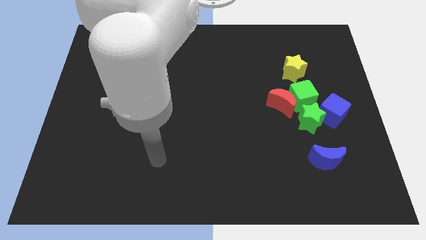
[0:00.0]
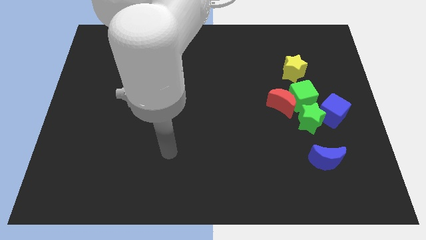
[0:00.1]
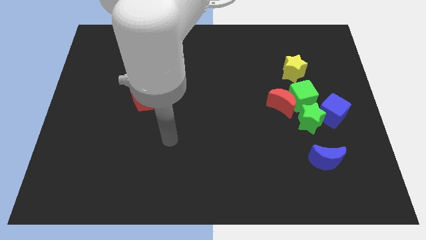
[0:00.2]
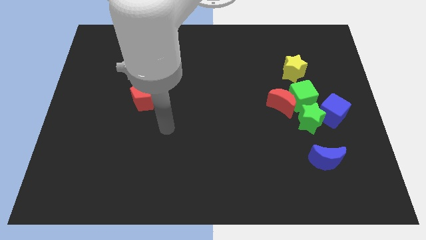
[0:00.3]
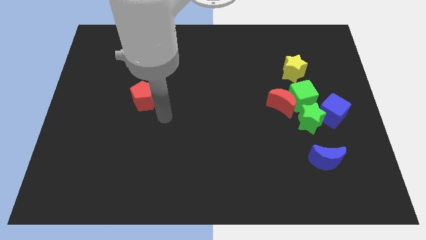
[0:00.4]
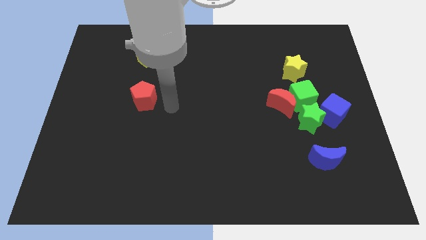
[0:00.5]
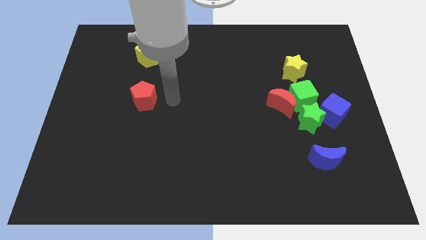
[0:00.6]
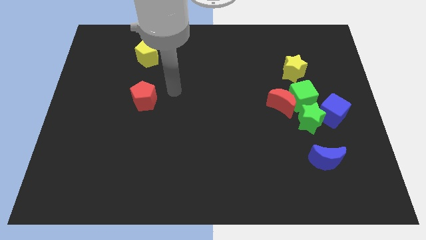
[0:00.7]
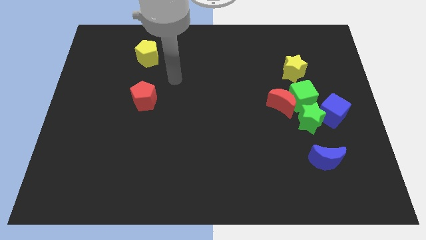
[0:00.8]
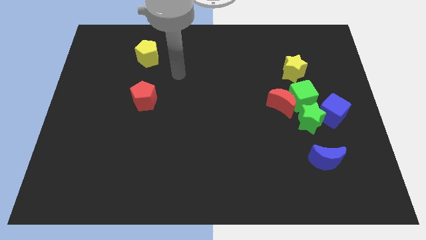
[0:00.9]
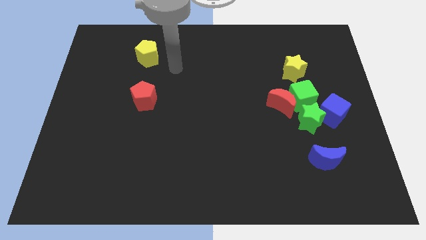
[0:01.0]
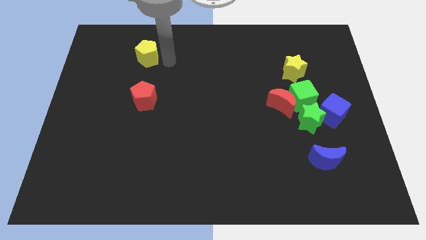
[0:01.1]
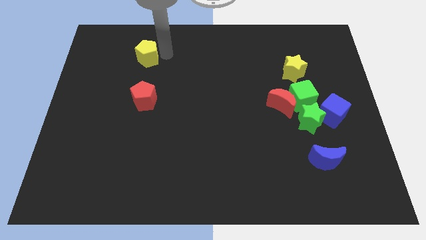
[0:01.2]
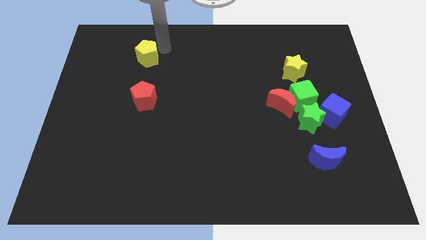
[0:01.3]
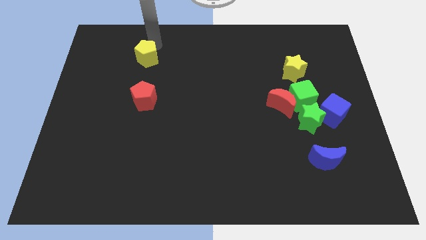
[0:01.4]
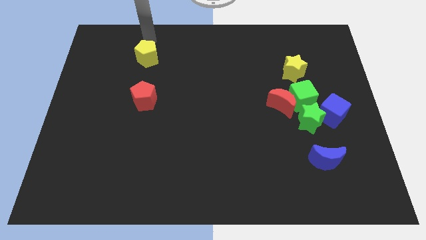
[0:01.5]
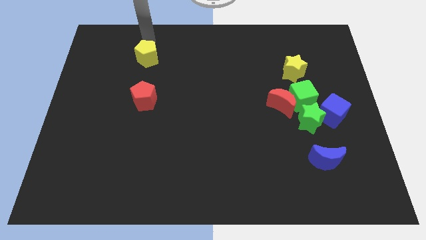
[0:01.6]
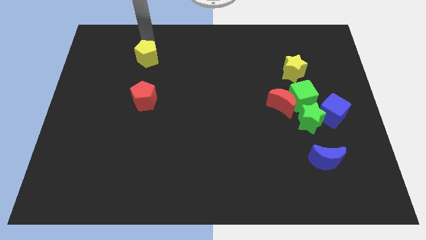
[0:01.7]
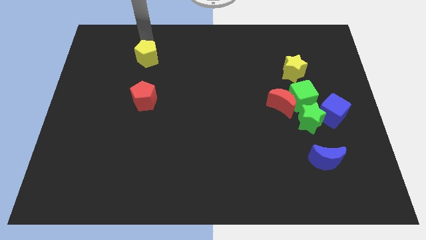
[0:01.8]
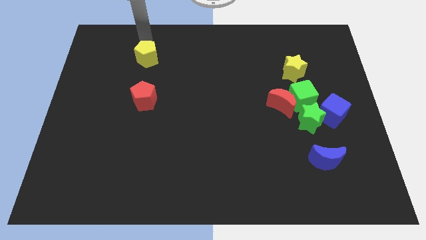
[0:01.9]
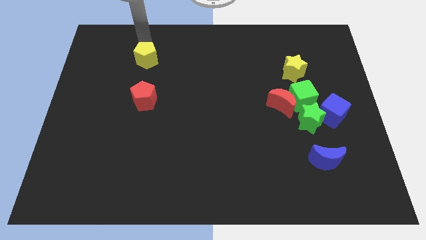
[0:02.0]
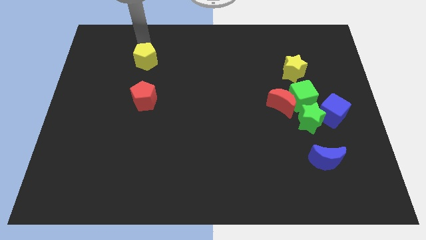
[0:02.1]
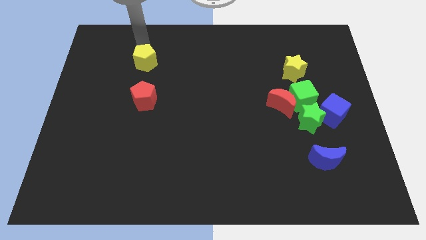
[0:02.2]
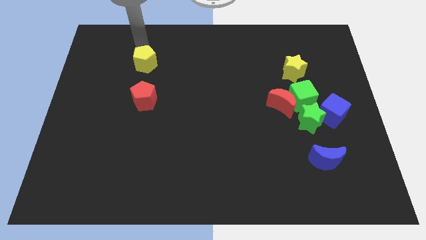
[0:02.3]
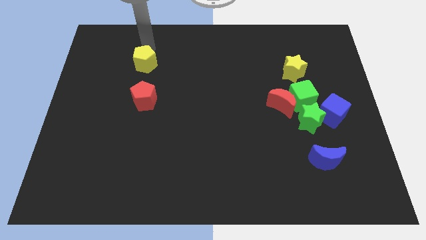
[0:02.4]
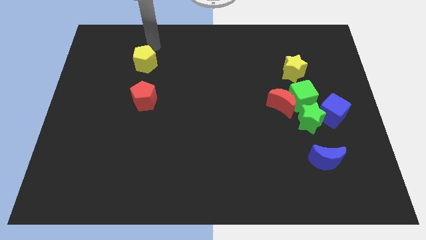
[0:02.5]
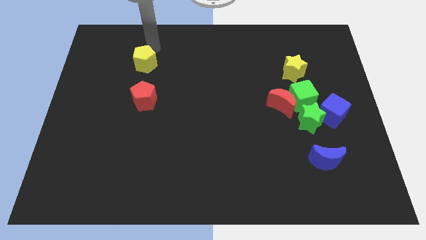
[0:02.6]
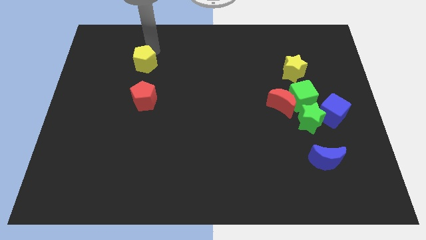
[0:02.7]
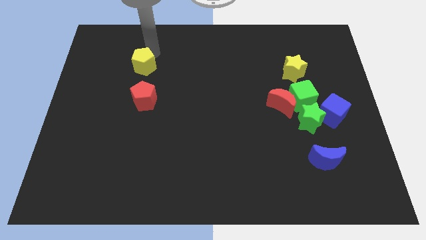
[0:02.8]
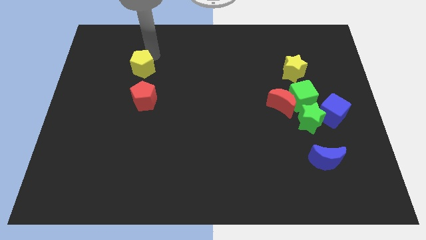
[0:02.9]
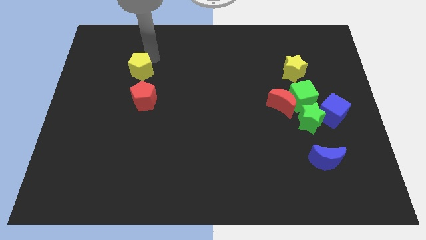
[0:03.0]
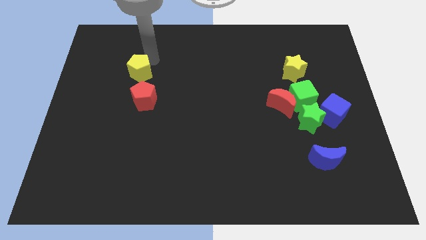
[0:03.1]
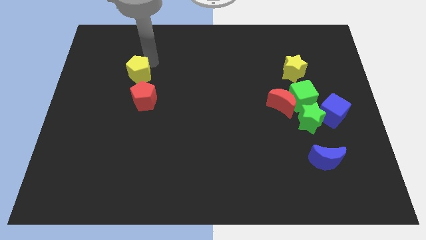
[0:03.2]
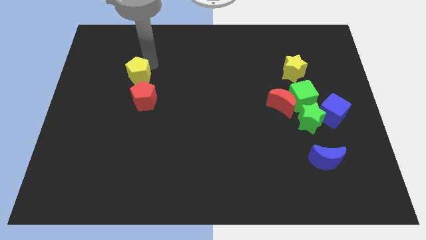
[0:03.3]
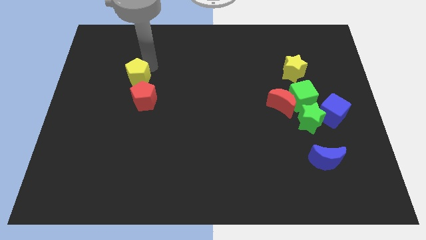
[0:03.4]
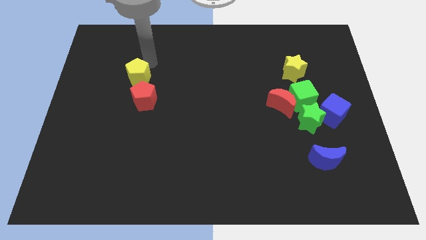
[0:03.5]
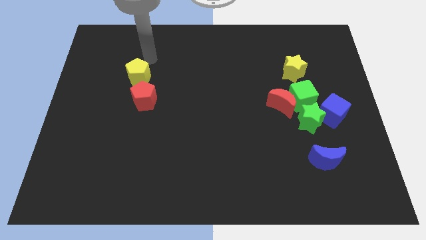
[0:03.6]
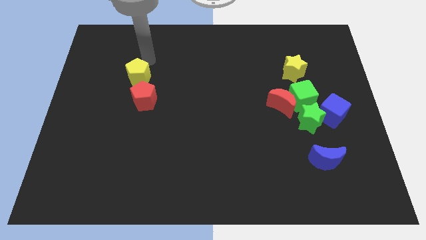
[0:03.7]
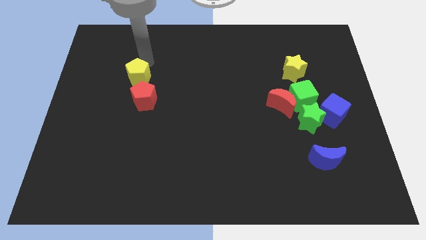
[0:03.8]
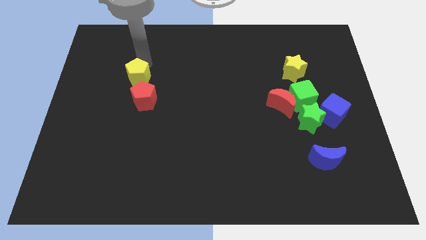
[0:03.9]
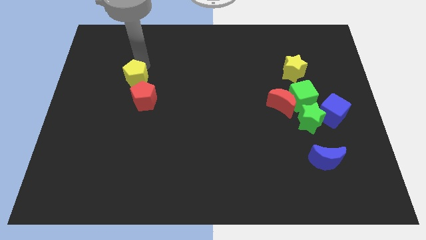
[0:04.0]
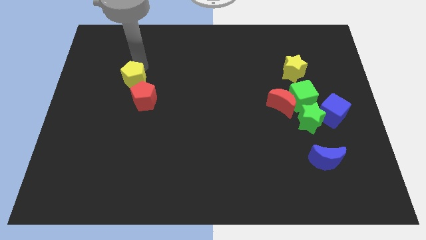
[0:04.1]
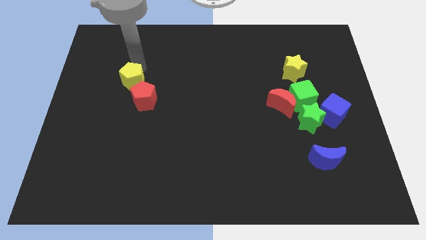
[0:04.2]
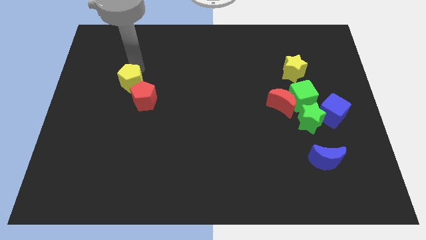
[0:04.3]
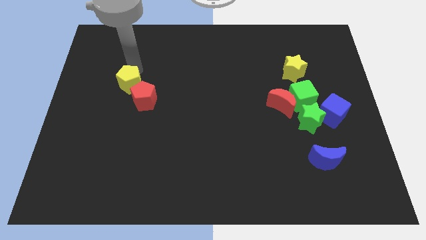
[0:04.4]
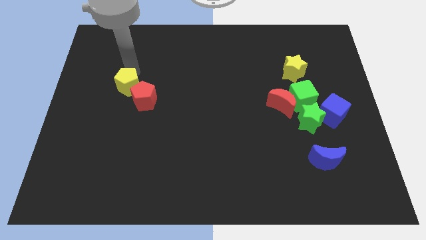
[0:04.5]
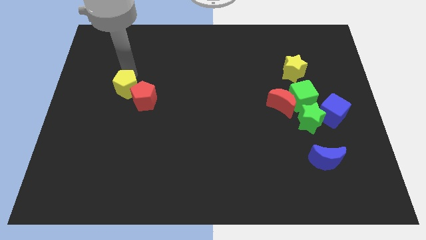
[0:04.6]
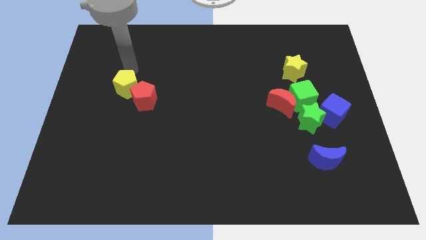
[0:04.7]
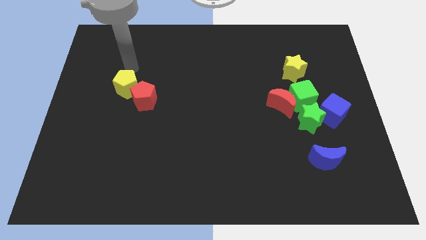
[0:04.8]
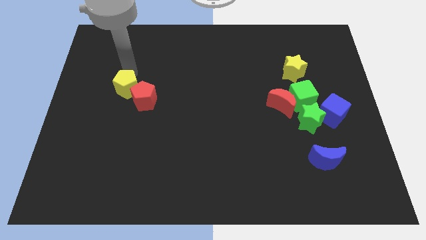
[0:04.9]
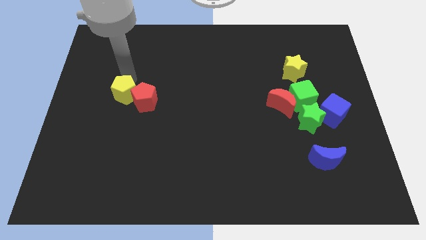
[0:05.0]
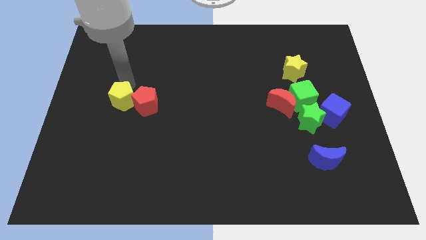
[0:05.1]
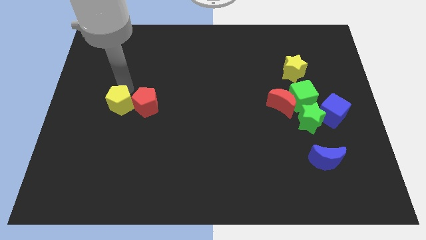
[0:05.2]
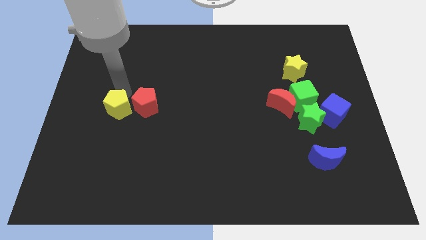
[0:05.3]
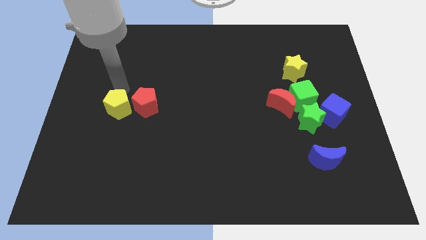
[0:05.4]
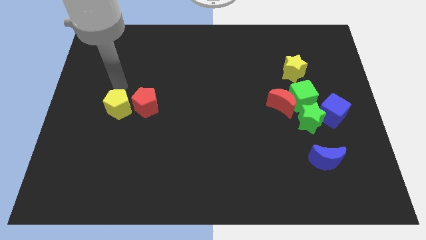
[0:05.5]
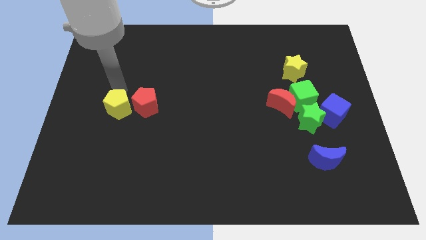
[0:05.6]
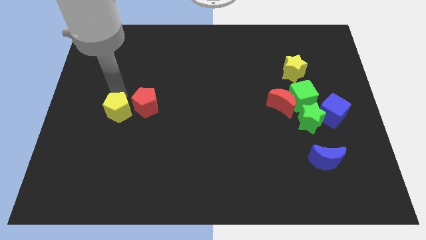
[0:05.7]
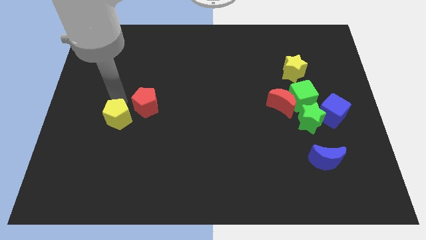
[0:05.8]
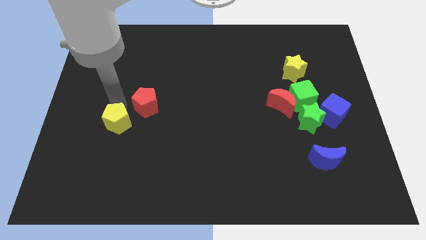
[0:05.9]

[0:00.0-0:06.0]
move the yellow pentagon down

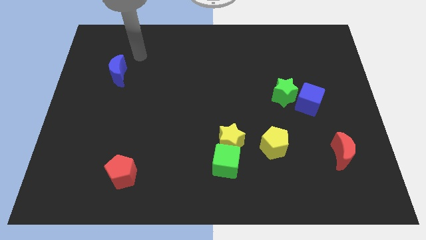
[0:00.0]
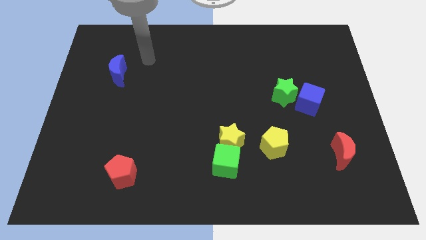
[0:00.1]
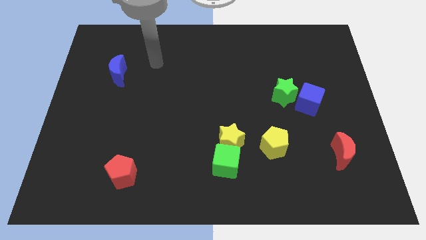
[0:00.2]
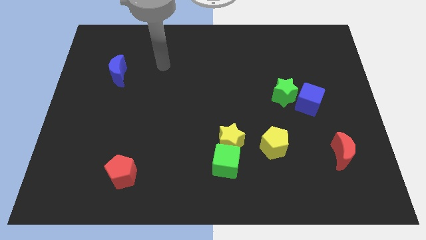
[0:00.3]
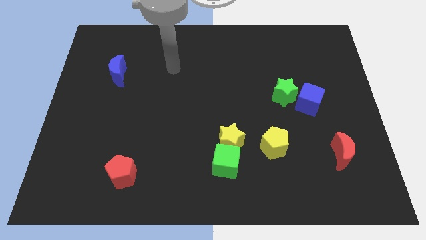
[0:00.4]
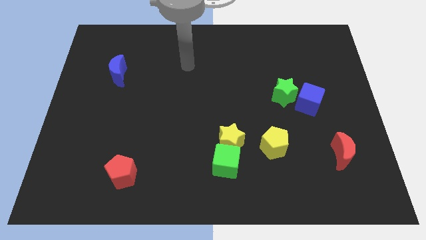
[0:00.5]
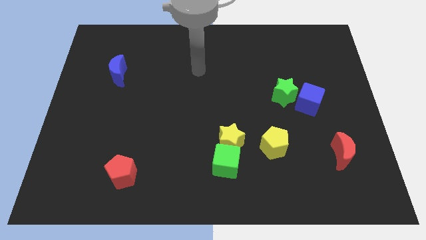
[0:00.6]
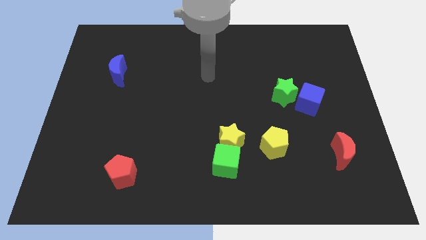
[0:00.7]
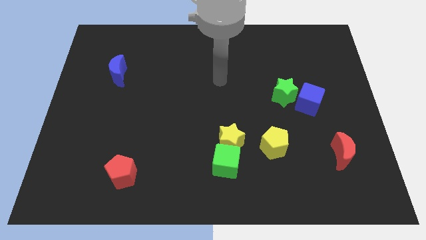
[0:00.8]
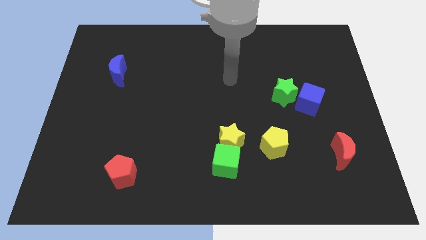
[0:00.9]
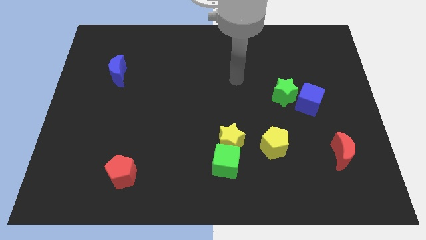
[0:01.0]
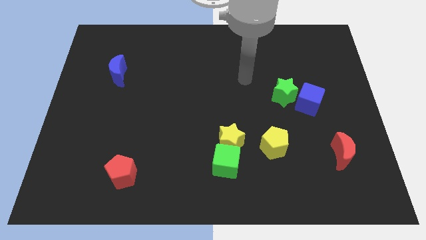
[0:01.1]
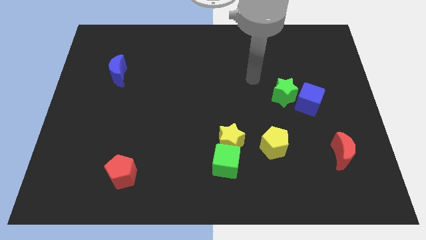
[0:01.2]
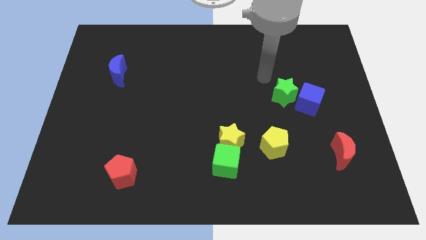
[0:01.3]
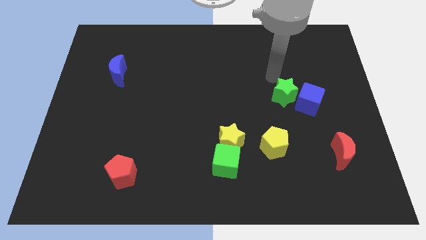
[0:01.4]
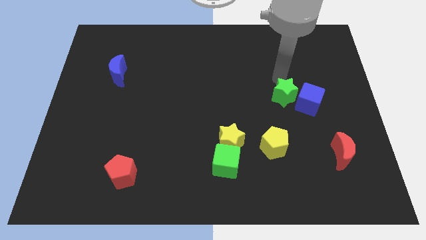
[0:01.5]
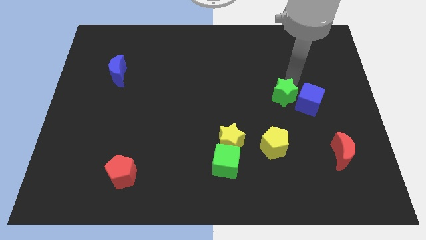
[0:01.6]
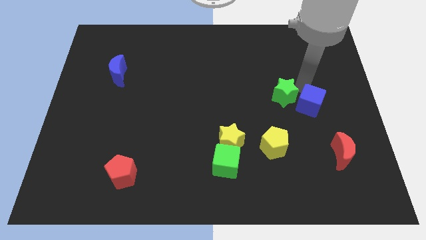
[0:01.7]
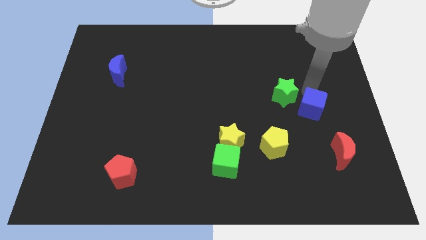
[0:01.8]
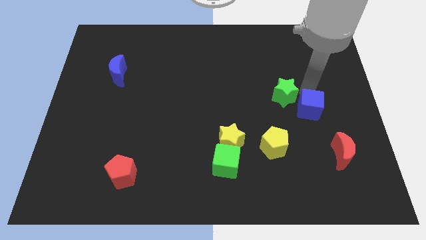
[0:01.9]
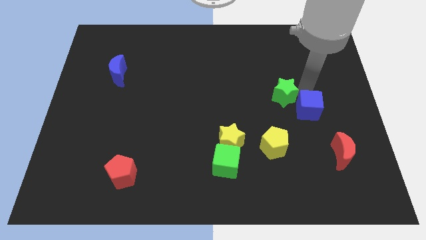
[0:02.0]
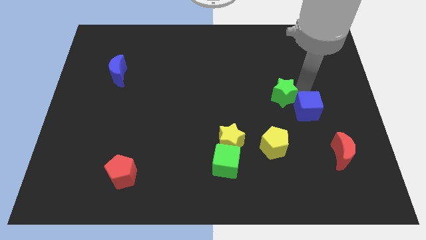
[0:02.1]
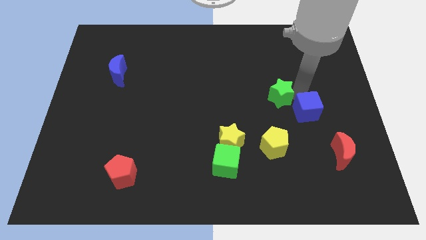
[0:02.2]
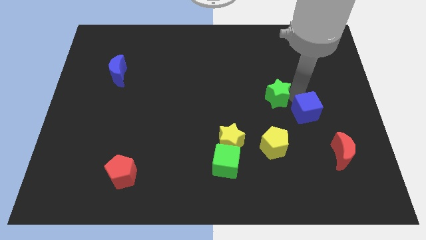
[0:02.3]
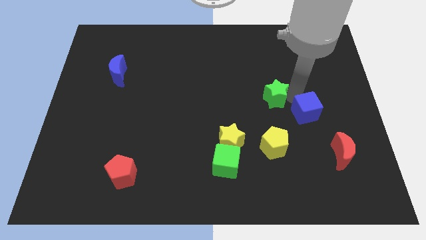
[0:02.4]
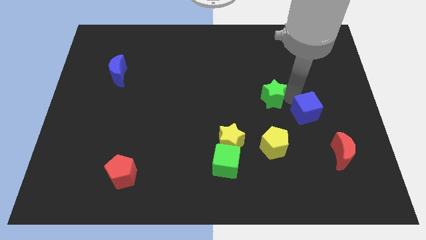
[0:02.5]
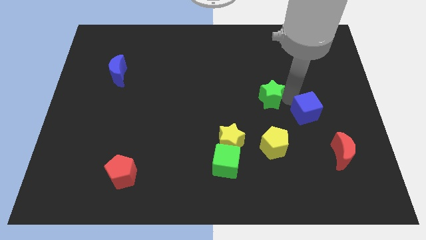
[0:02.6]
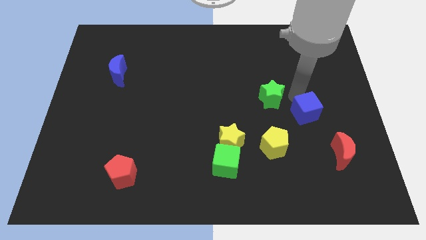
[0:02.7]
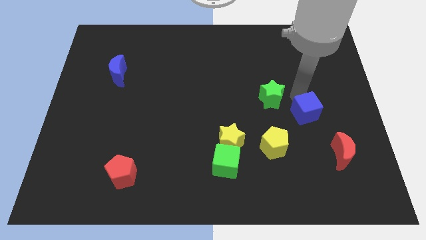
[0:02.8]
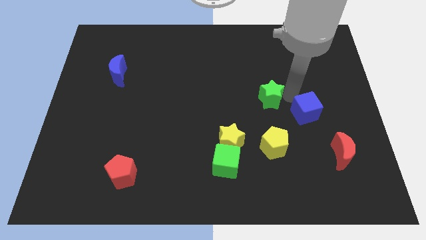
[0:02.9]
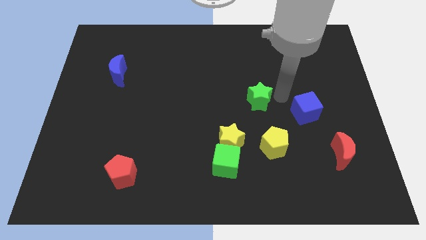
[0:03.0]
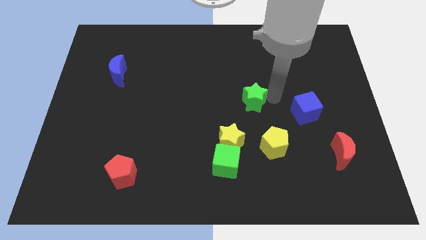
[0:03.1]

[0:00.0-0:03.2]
move the green star somewhat to the left
